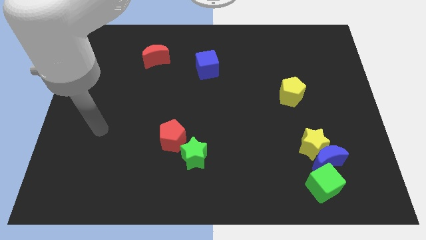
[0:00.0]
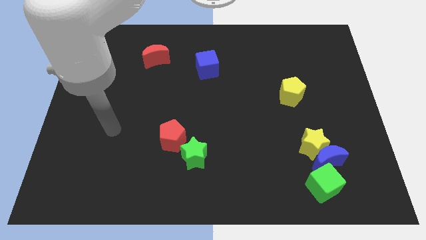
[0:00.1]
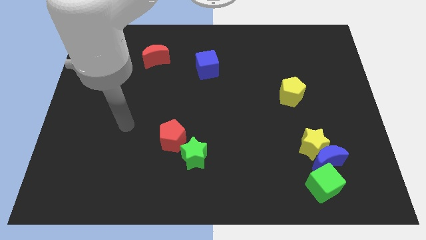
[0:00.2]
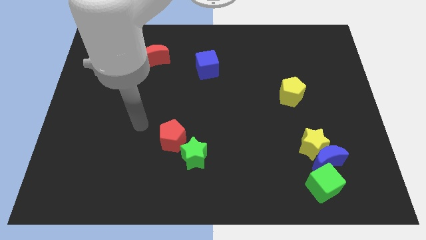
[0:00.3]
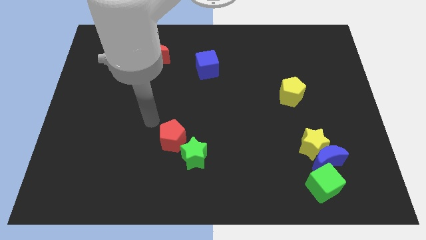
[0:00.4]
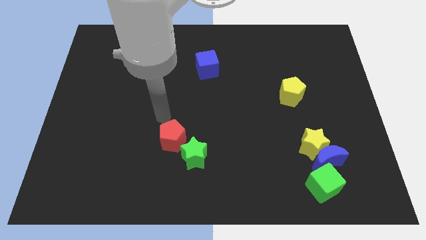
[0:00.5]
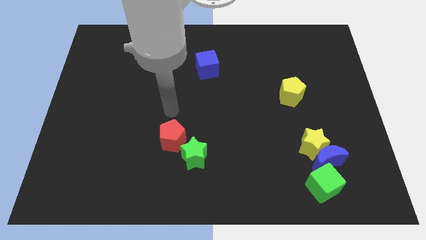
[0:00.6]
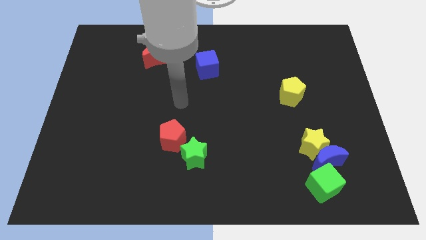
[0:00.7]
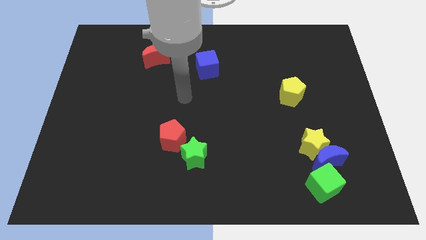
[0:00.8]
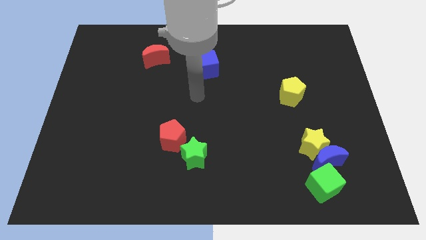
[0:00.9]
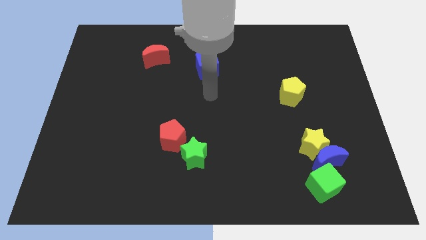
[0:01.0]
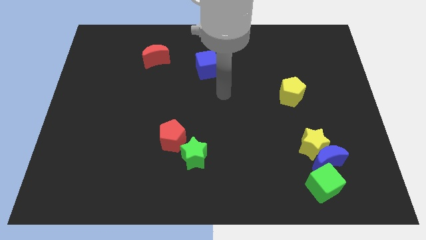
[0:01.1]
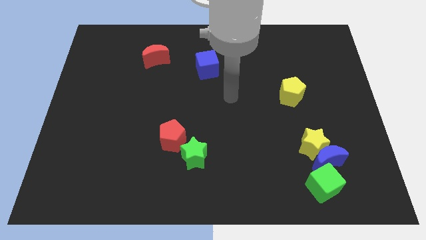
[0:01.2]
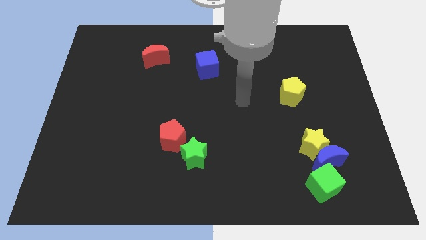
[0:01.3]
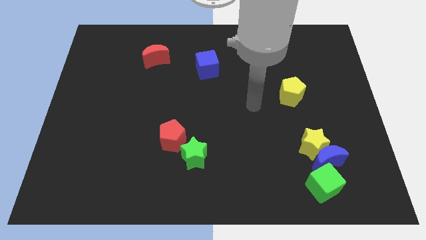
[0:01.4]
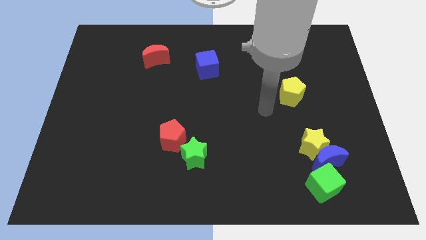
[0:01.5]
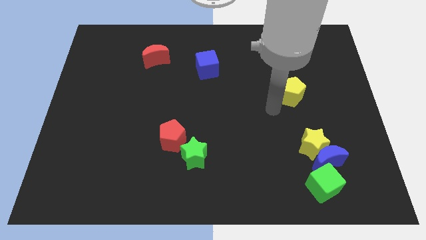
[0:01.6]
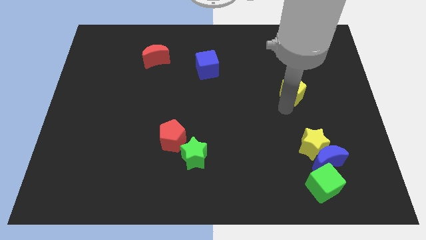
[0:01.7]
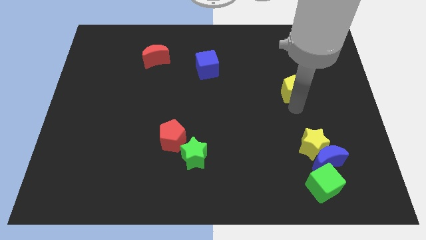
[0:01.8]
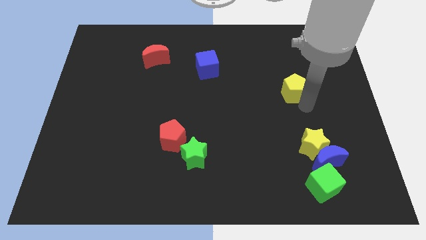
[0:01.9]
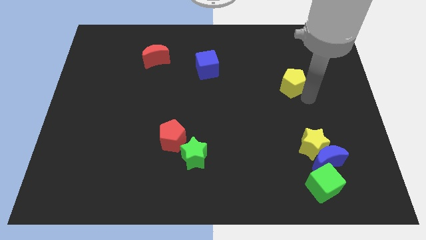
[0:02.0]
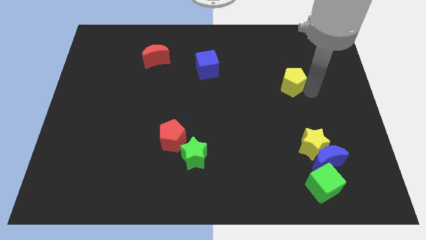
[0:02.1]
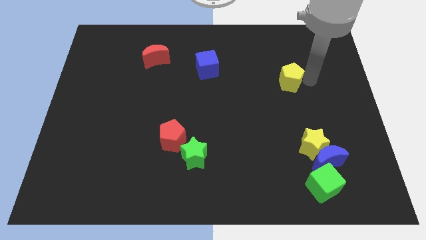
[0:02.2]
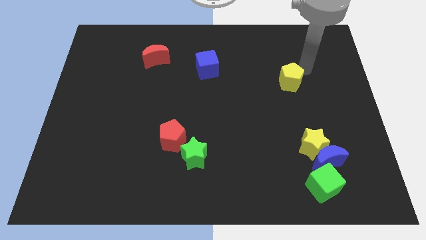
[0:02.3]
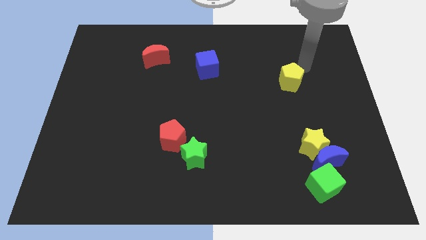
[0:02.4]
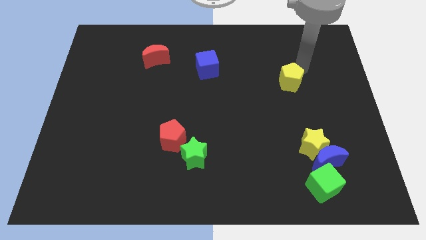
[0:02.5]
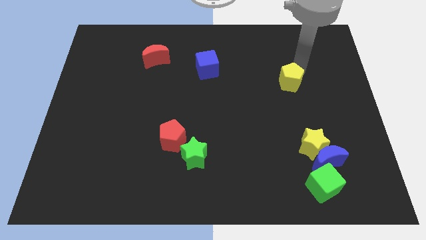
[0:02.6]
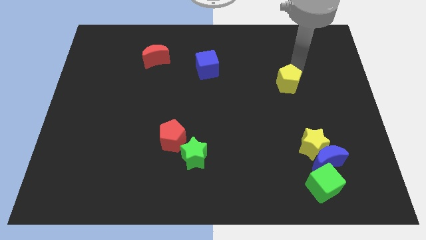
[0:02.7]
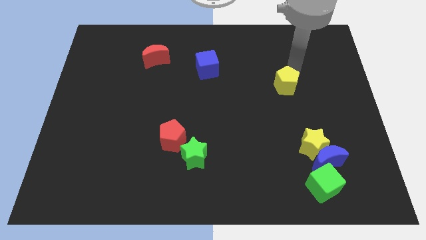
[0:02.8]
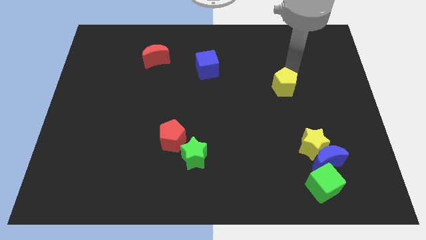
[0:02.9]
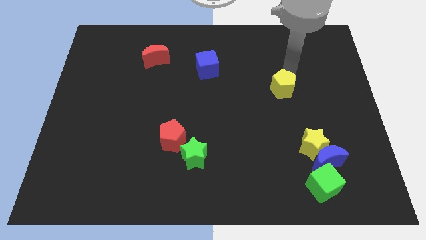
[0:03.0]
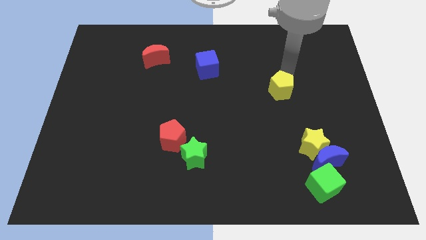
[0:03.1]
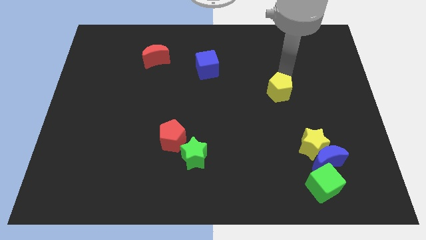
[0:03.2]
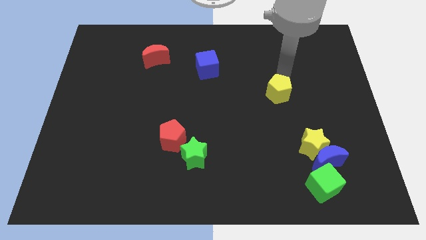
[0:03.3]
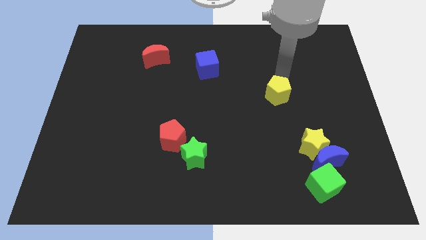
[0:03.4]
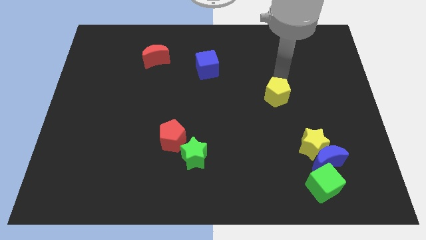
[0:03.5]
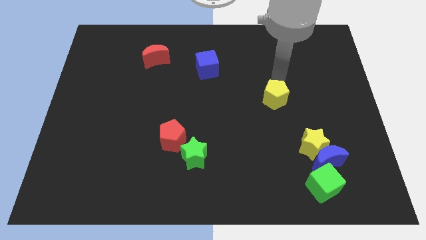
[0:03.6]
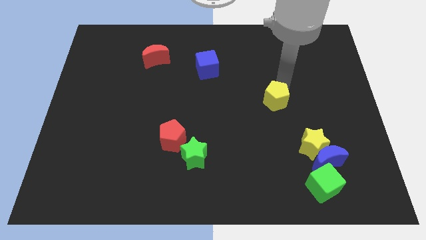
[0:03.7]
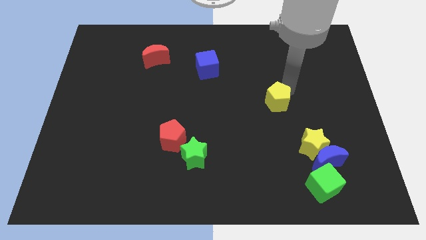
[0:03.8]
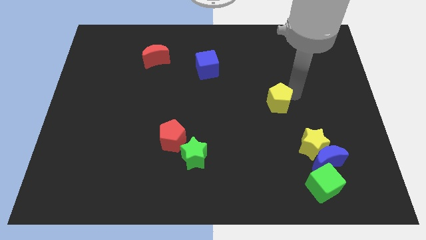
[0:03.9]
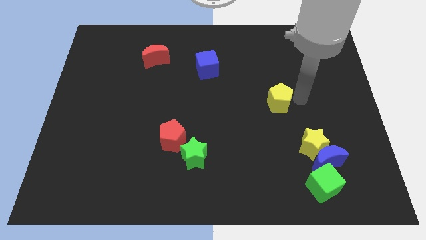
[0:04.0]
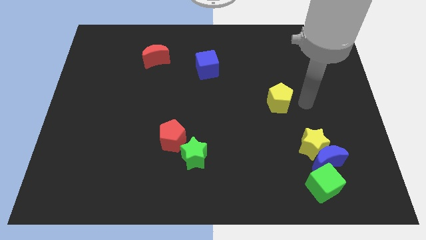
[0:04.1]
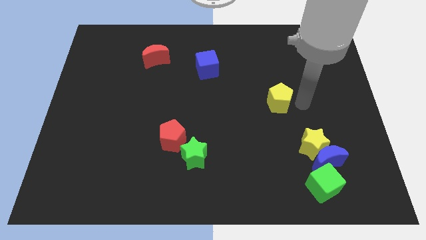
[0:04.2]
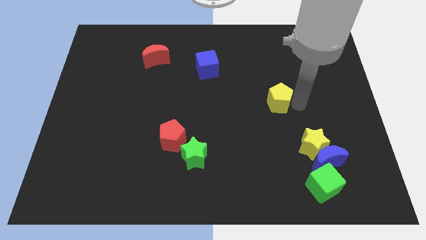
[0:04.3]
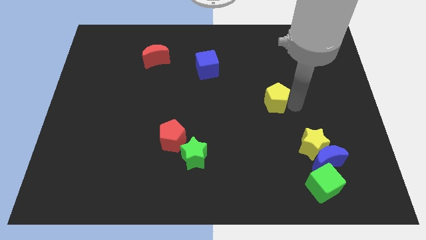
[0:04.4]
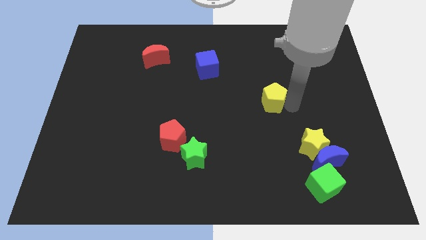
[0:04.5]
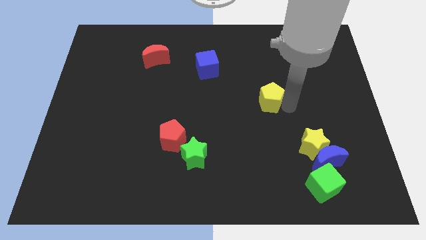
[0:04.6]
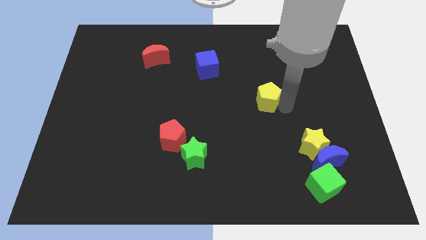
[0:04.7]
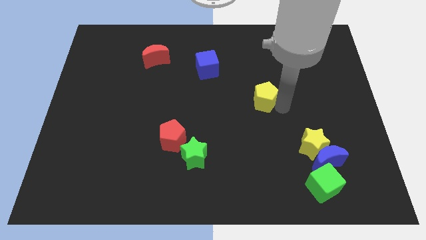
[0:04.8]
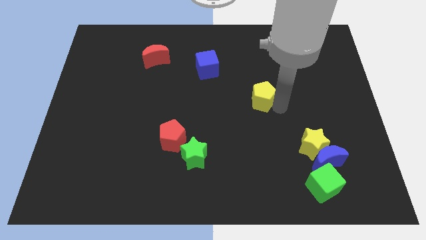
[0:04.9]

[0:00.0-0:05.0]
move the yellow pentagon to the left somewhat

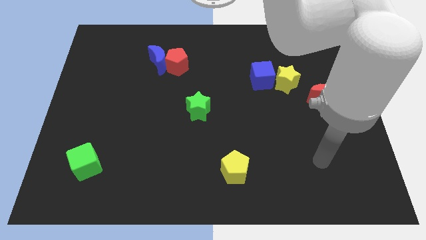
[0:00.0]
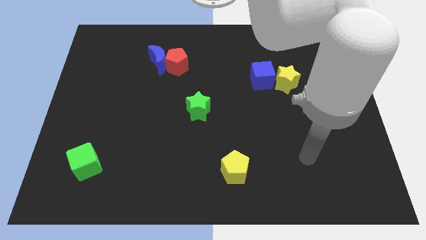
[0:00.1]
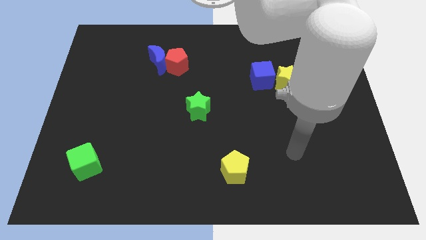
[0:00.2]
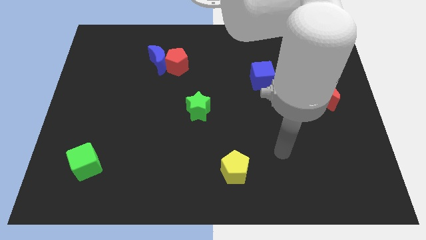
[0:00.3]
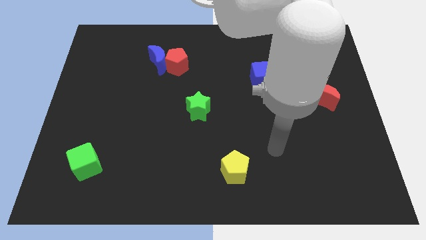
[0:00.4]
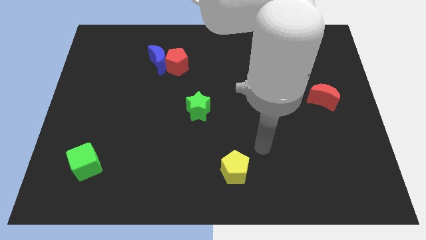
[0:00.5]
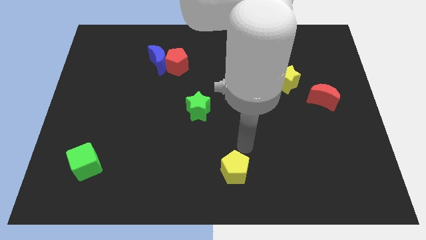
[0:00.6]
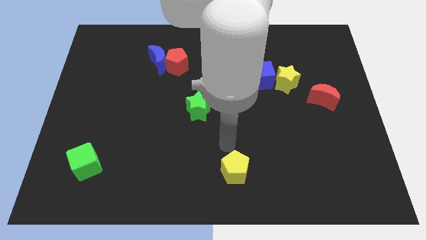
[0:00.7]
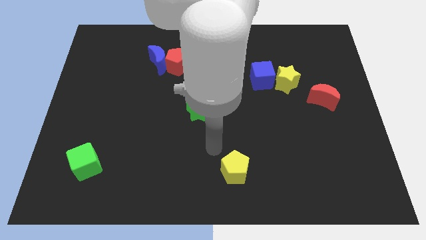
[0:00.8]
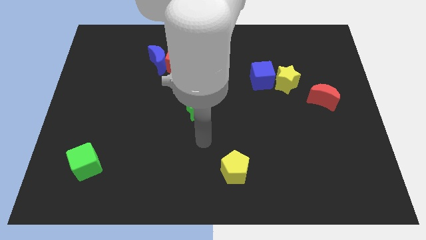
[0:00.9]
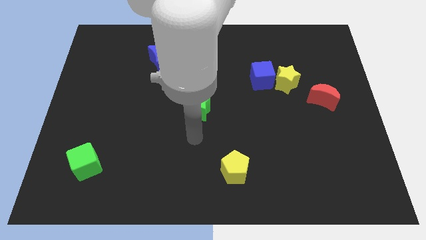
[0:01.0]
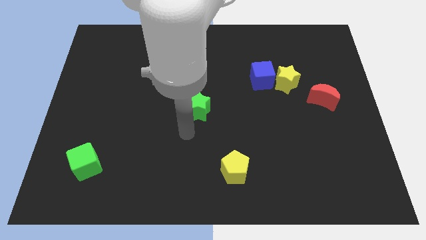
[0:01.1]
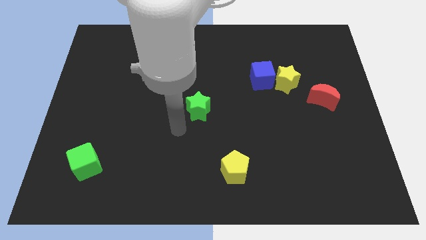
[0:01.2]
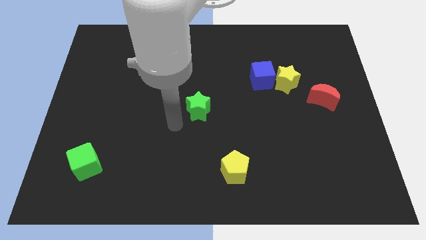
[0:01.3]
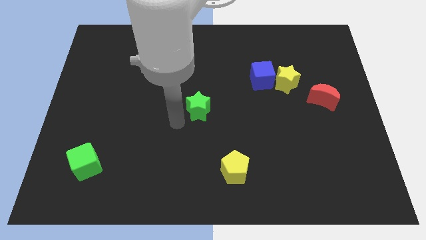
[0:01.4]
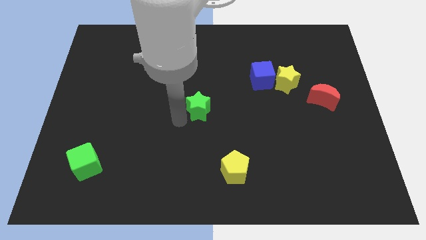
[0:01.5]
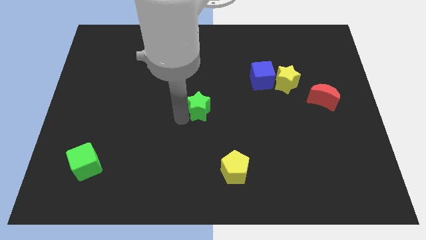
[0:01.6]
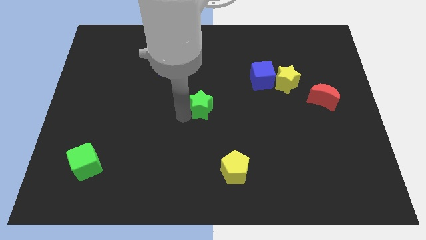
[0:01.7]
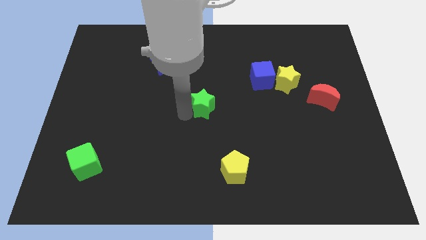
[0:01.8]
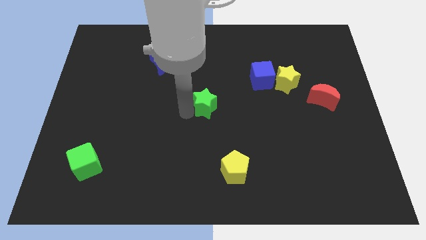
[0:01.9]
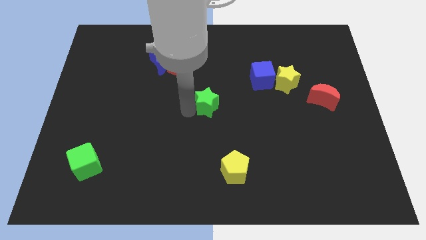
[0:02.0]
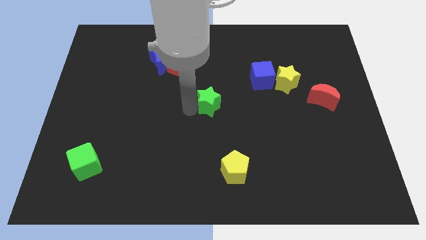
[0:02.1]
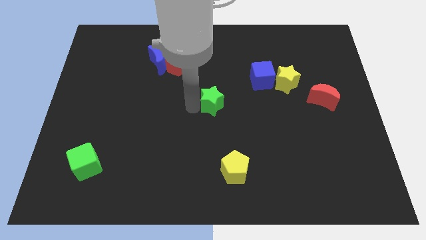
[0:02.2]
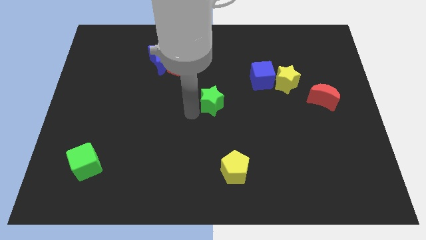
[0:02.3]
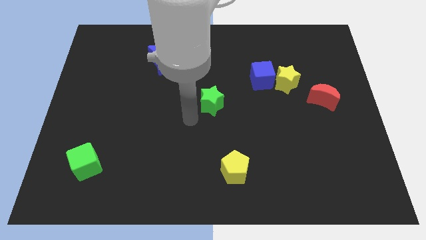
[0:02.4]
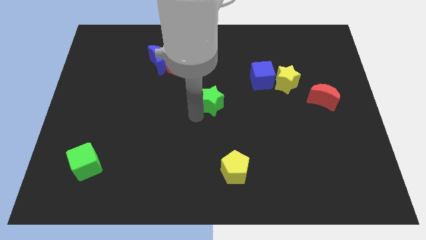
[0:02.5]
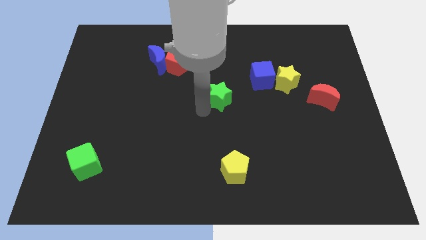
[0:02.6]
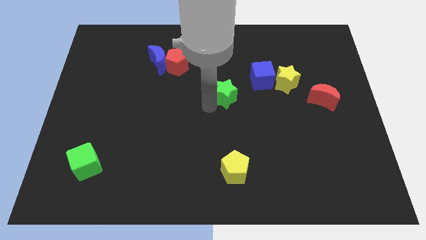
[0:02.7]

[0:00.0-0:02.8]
slightly slide the green star up and then to the right

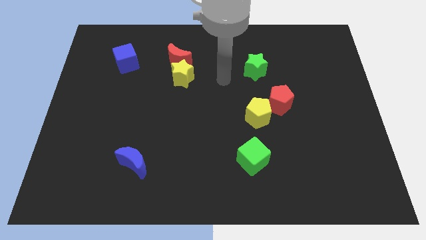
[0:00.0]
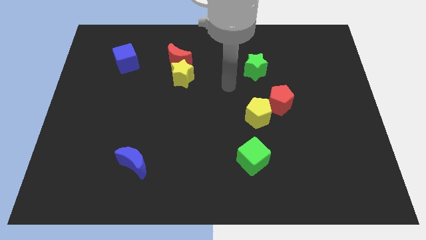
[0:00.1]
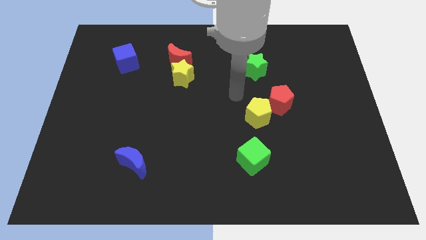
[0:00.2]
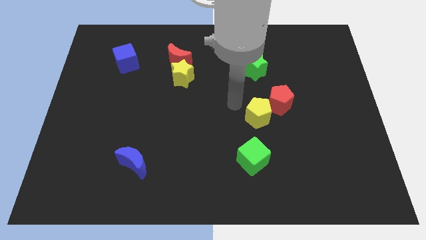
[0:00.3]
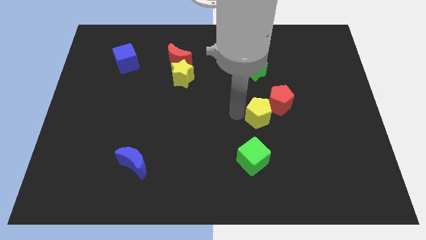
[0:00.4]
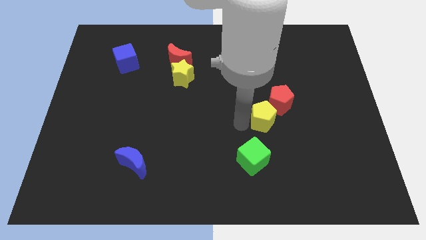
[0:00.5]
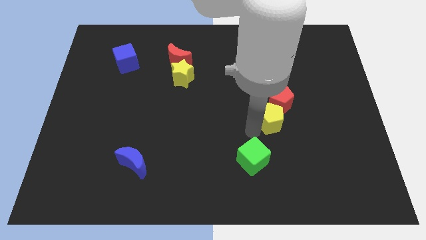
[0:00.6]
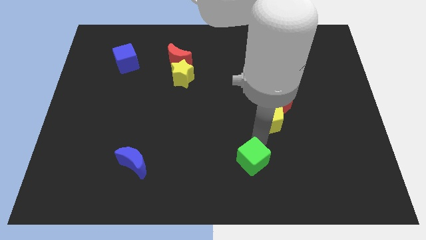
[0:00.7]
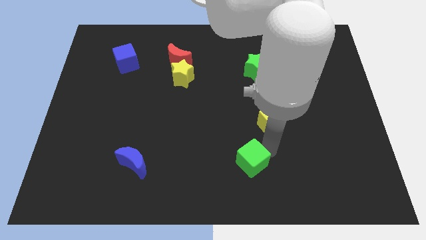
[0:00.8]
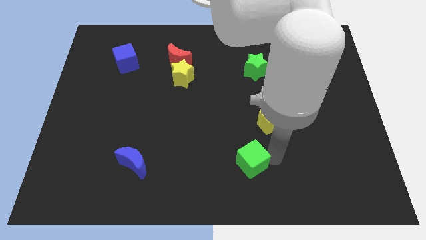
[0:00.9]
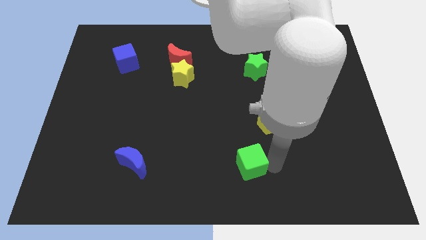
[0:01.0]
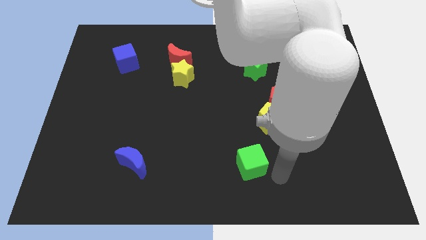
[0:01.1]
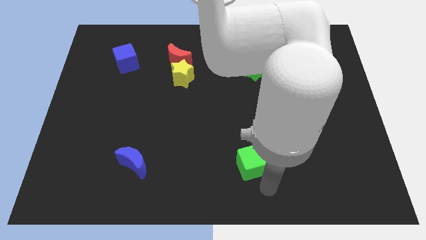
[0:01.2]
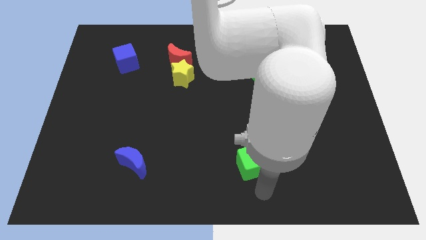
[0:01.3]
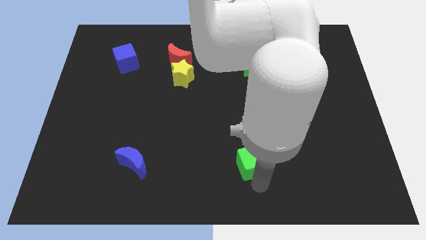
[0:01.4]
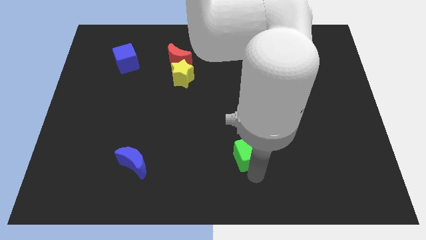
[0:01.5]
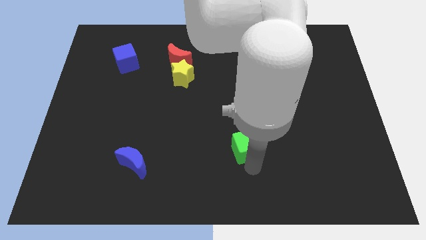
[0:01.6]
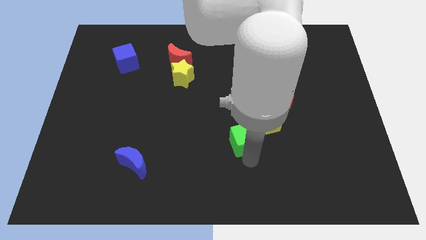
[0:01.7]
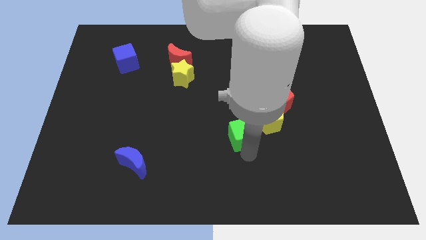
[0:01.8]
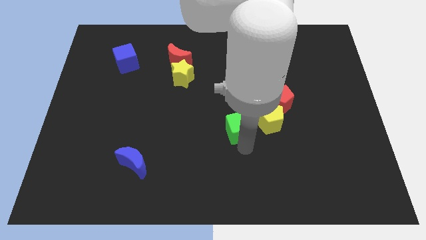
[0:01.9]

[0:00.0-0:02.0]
push the green cube up a little bit
